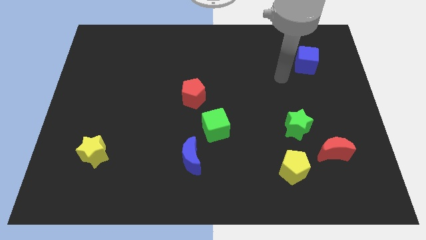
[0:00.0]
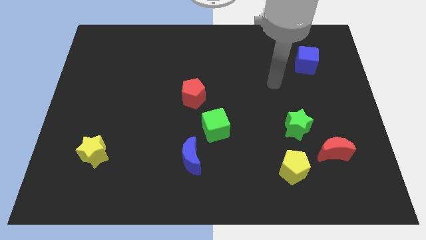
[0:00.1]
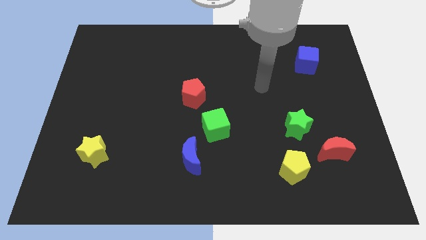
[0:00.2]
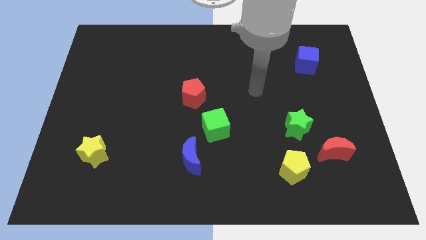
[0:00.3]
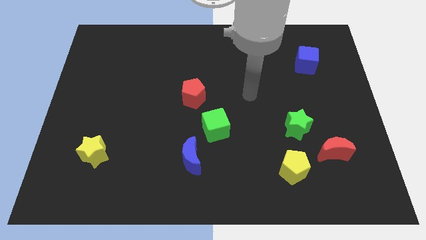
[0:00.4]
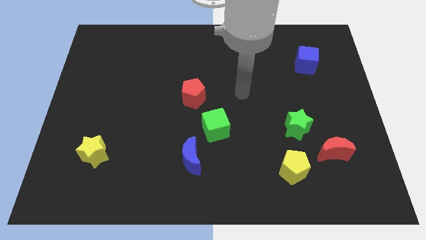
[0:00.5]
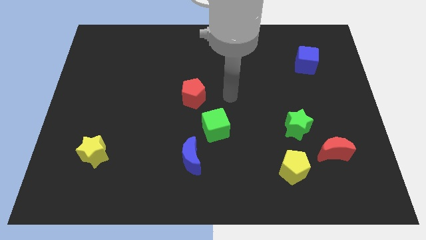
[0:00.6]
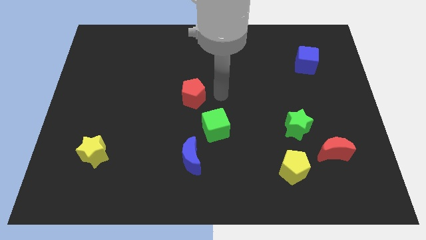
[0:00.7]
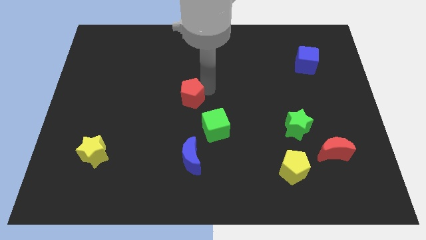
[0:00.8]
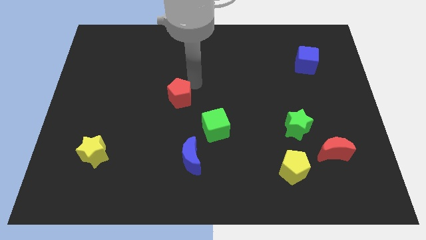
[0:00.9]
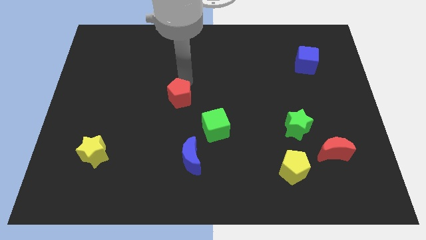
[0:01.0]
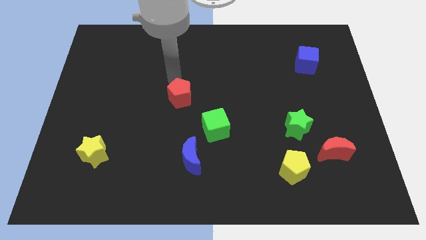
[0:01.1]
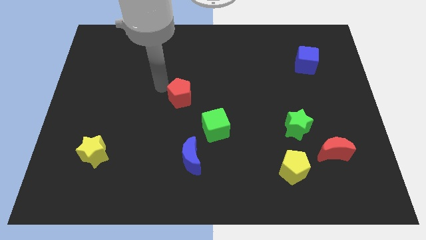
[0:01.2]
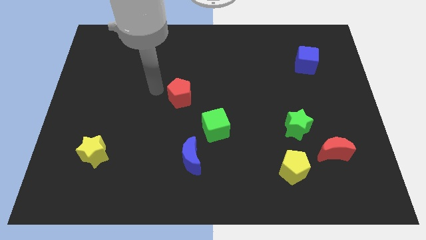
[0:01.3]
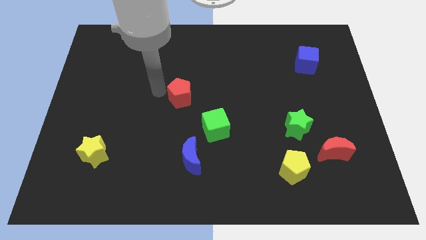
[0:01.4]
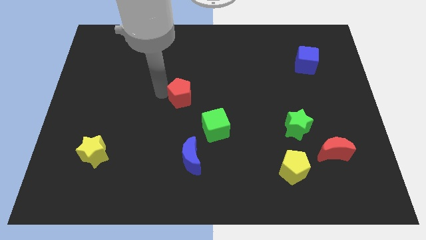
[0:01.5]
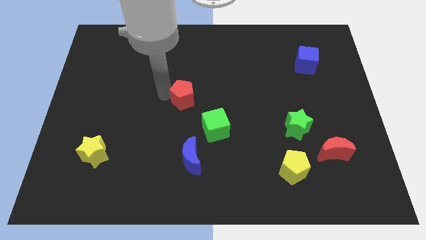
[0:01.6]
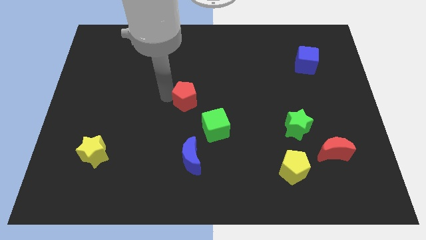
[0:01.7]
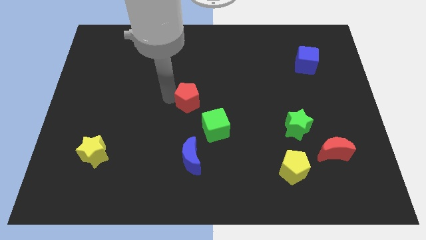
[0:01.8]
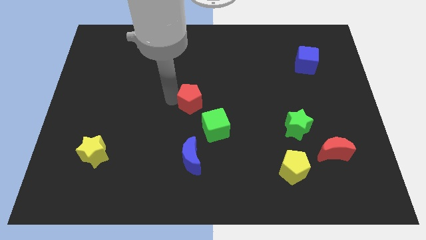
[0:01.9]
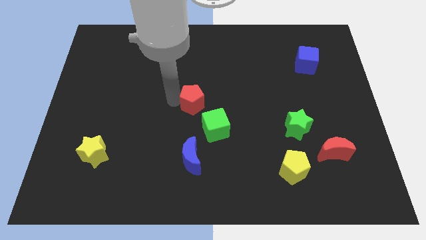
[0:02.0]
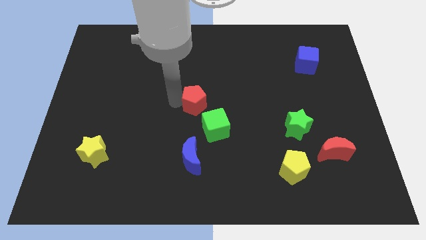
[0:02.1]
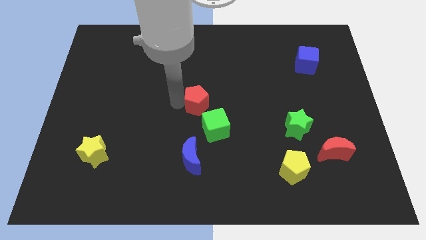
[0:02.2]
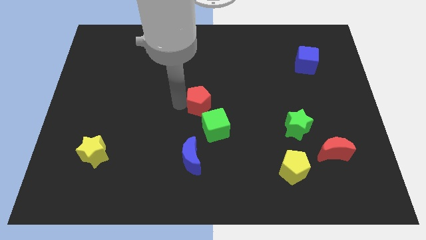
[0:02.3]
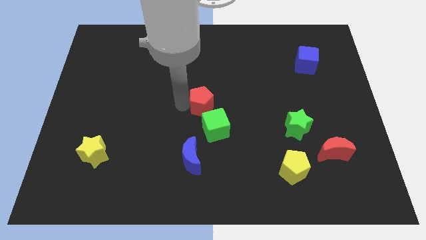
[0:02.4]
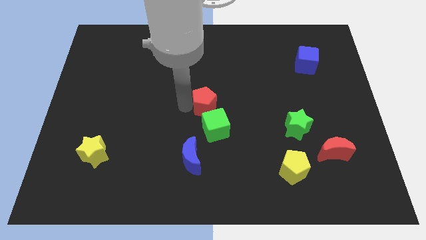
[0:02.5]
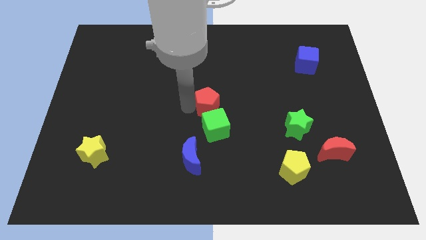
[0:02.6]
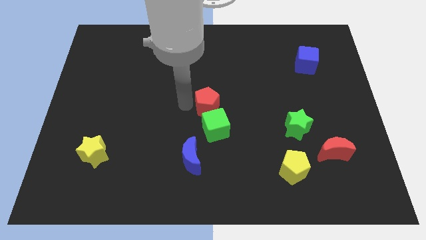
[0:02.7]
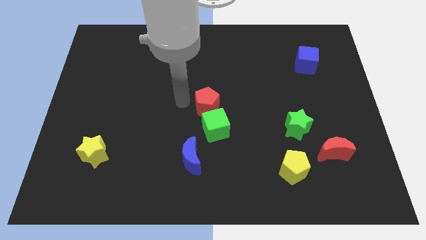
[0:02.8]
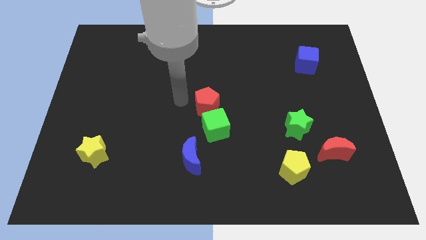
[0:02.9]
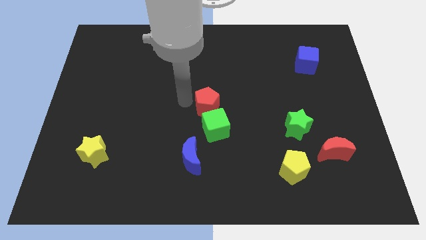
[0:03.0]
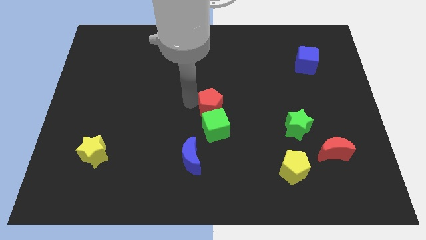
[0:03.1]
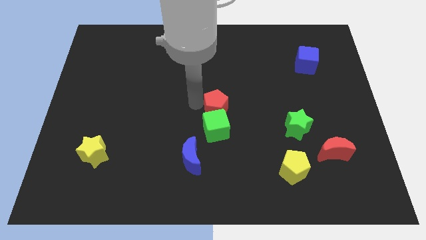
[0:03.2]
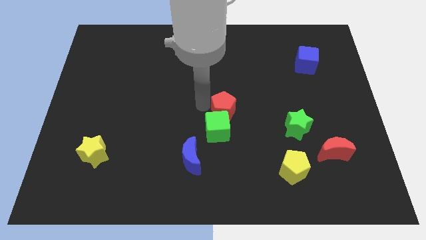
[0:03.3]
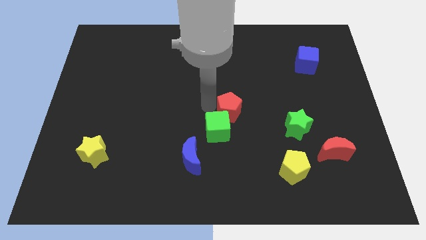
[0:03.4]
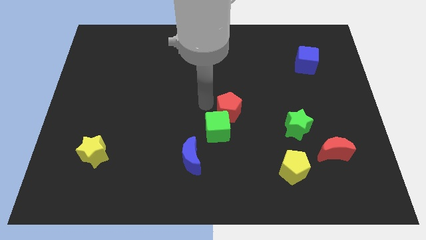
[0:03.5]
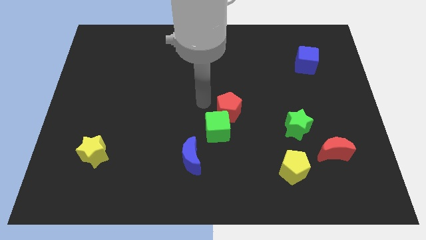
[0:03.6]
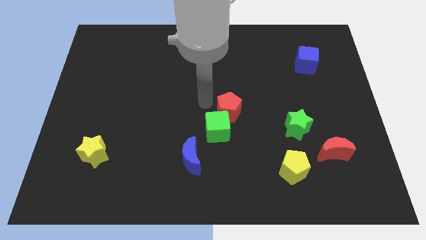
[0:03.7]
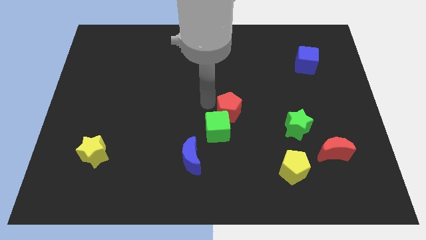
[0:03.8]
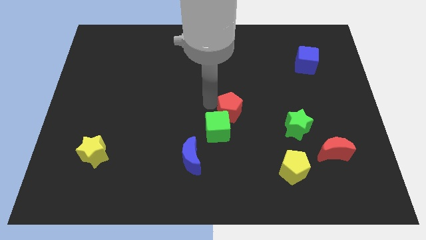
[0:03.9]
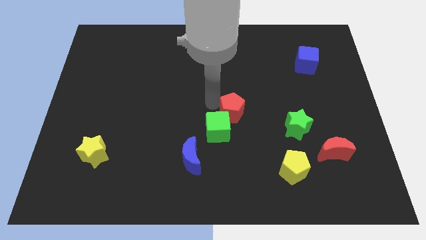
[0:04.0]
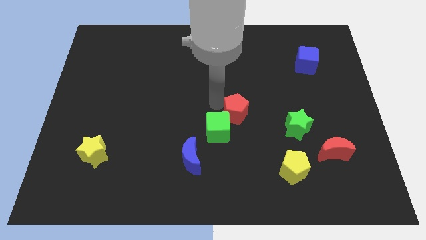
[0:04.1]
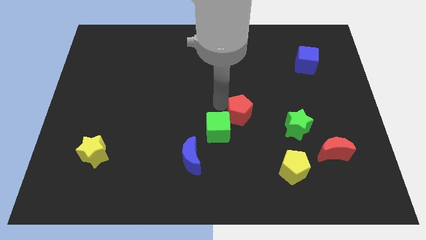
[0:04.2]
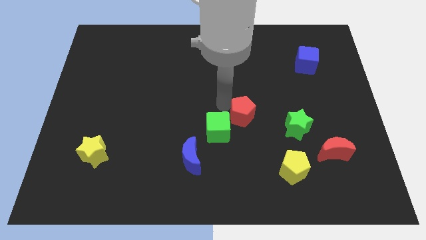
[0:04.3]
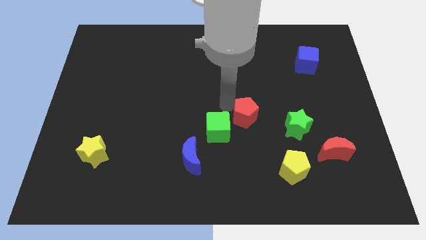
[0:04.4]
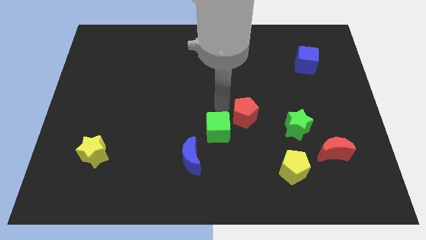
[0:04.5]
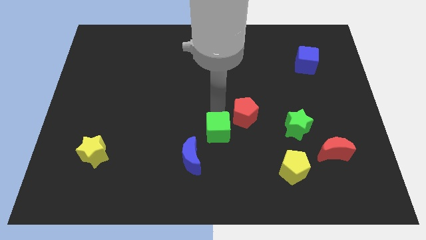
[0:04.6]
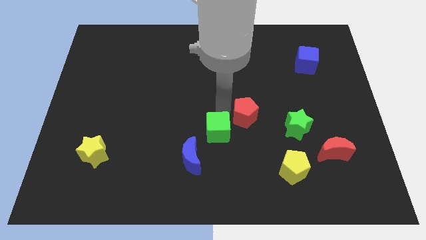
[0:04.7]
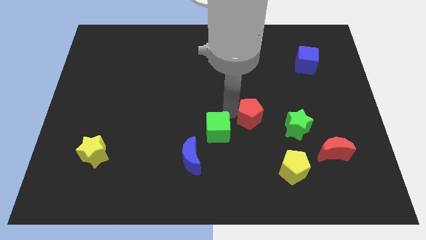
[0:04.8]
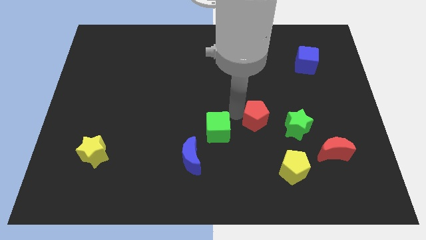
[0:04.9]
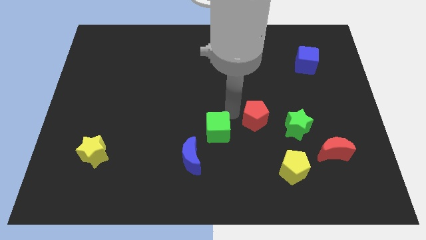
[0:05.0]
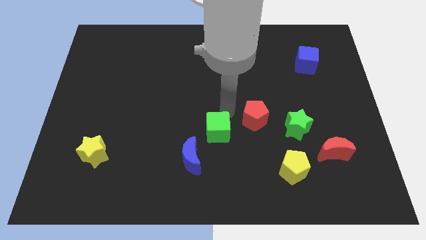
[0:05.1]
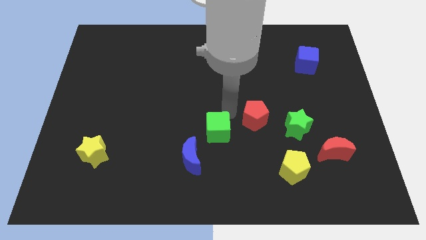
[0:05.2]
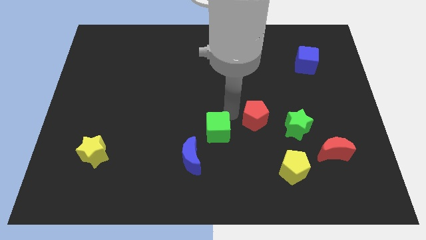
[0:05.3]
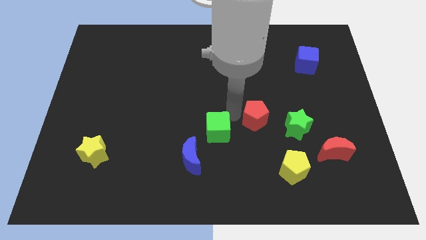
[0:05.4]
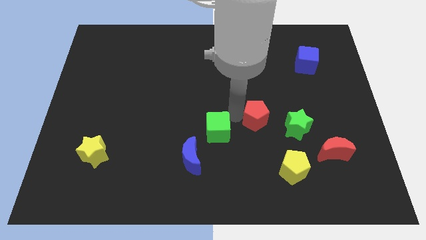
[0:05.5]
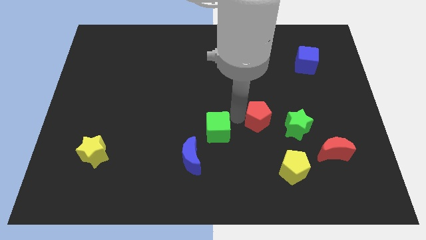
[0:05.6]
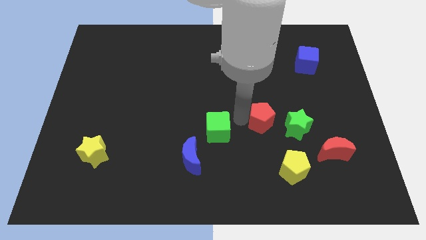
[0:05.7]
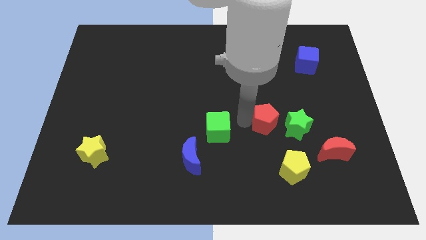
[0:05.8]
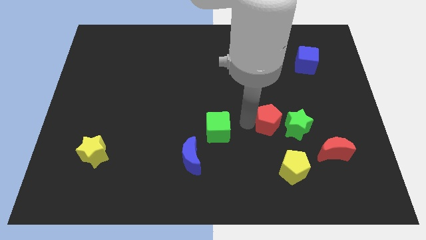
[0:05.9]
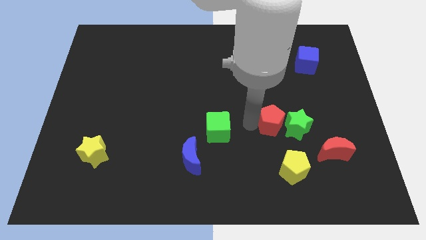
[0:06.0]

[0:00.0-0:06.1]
slide the red pentagon next to the green star
